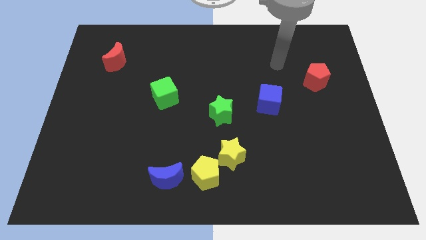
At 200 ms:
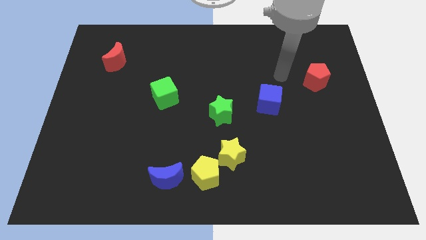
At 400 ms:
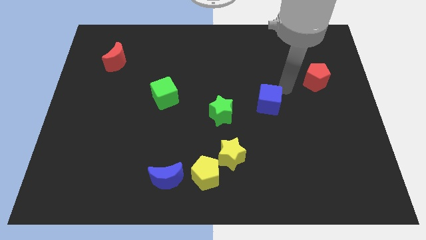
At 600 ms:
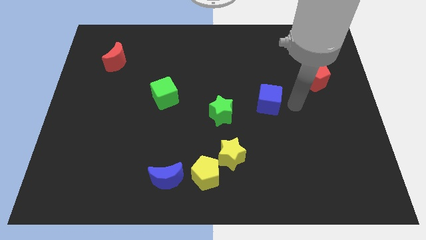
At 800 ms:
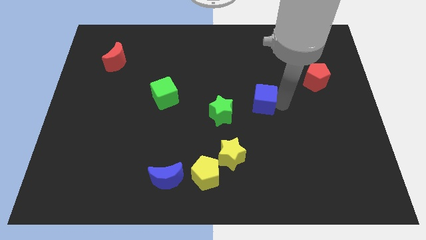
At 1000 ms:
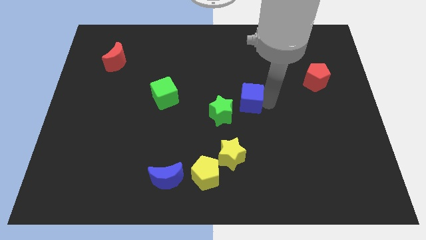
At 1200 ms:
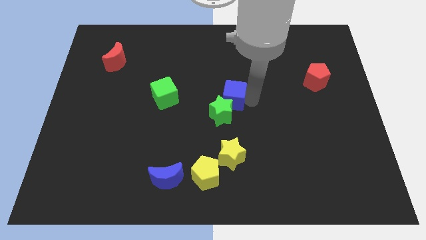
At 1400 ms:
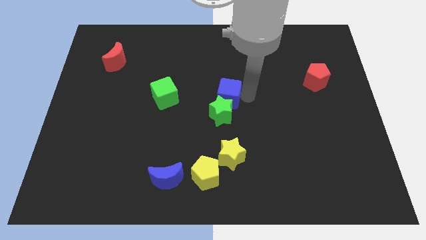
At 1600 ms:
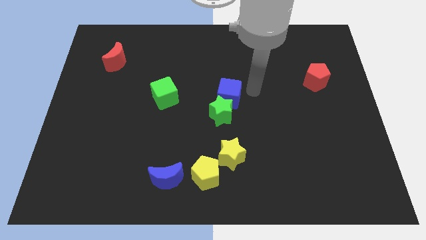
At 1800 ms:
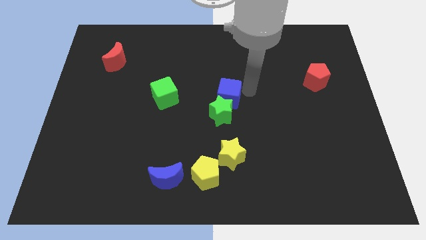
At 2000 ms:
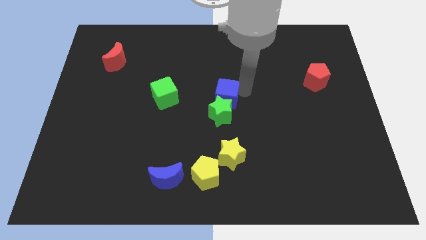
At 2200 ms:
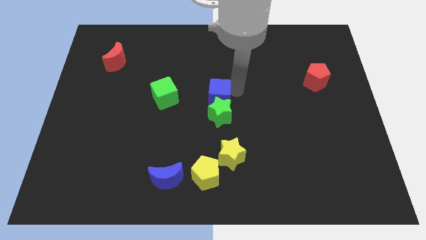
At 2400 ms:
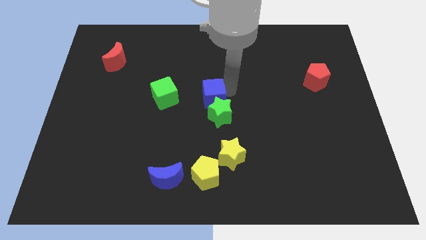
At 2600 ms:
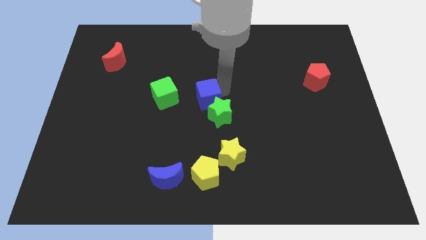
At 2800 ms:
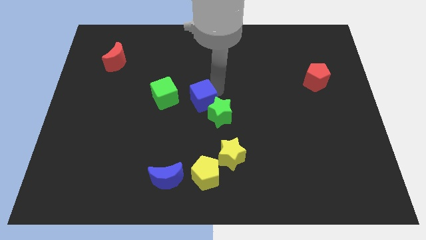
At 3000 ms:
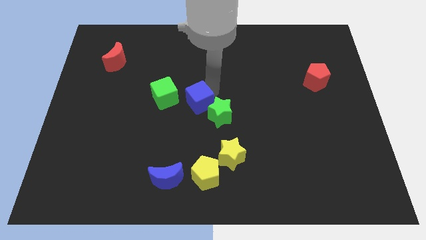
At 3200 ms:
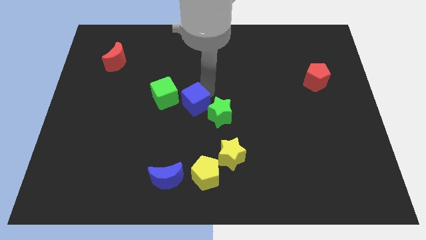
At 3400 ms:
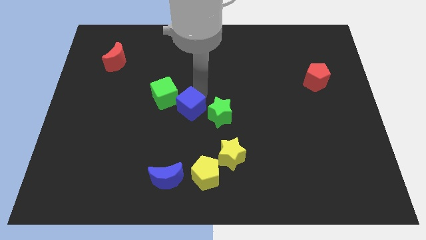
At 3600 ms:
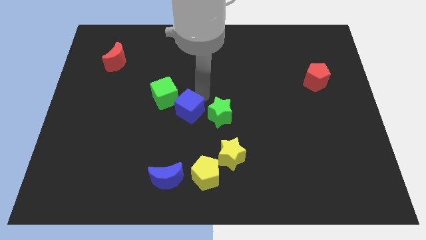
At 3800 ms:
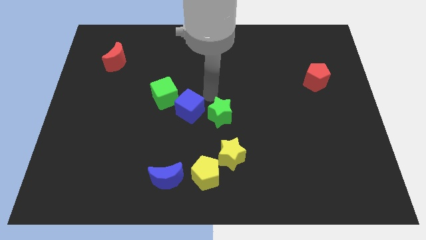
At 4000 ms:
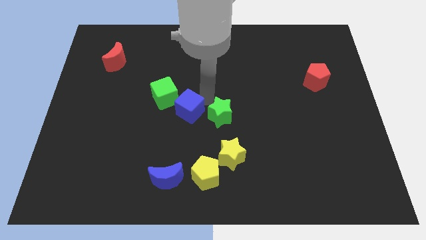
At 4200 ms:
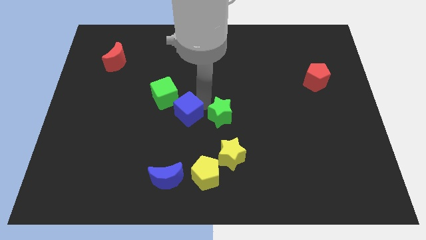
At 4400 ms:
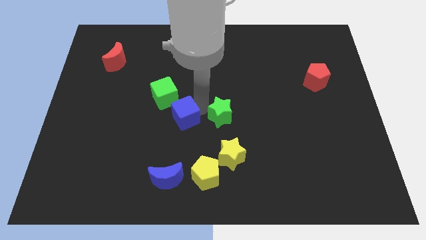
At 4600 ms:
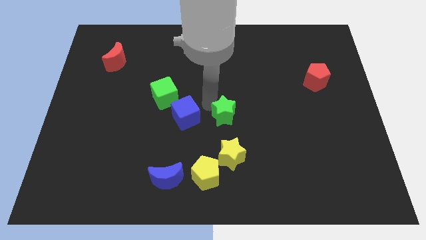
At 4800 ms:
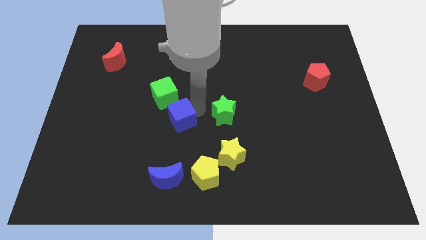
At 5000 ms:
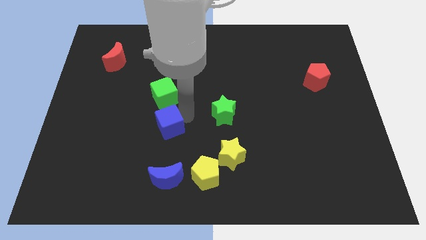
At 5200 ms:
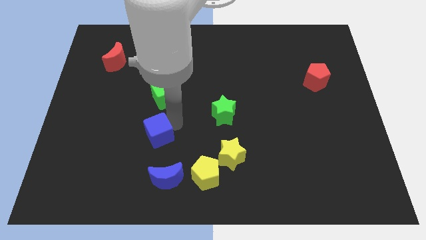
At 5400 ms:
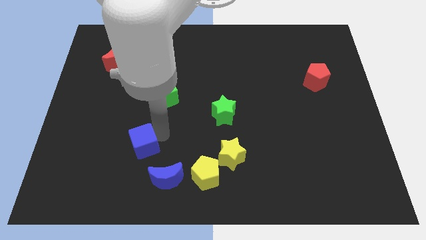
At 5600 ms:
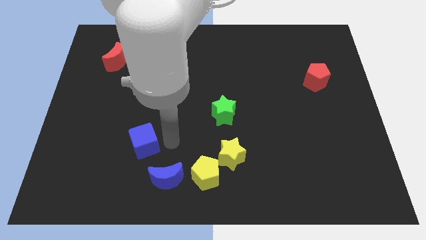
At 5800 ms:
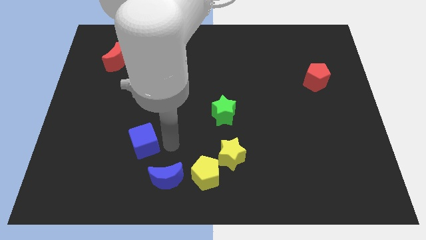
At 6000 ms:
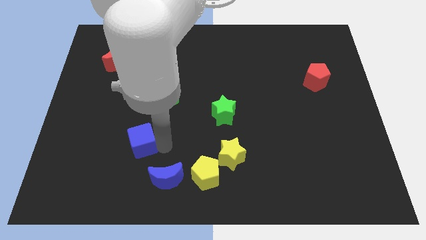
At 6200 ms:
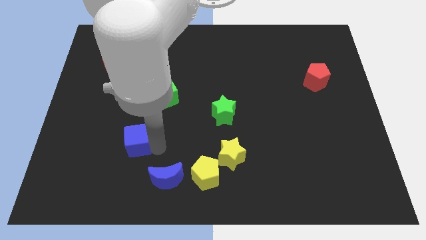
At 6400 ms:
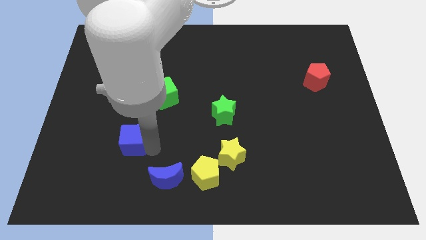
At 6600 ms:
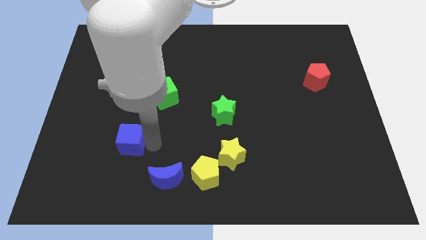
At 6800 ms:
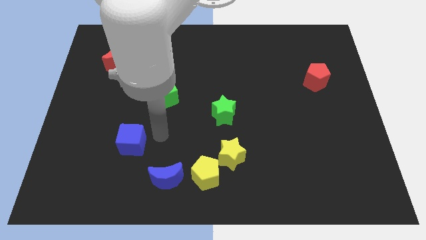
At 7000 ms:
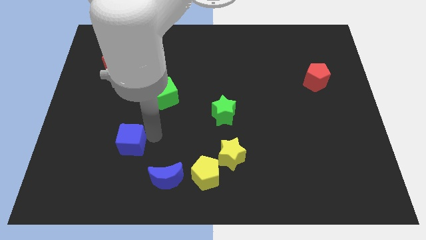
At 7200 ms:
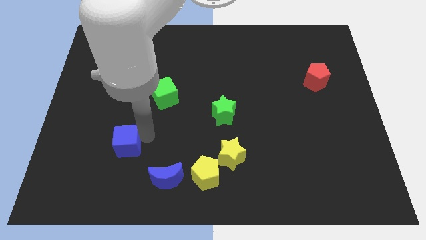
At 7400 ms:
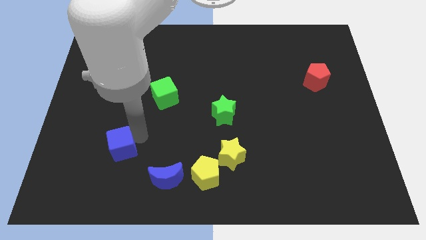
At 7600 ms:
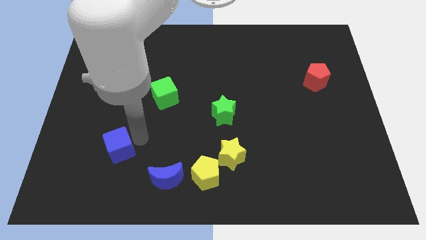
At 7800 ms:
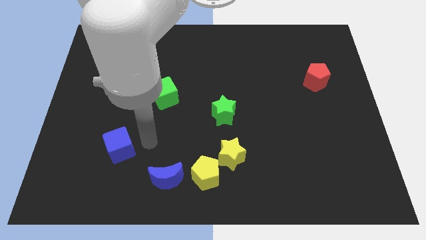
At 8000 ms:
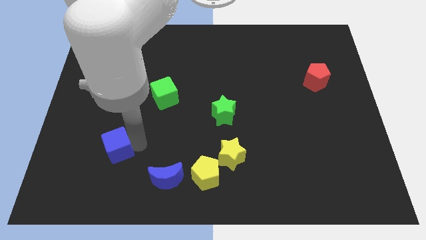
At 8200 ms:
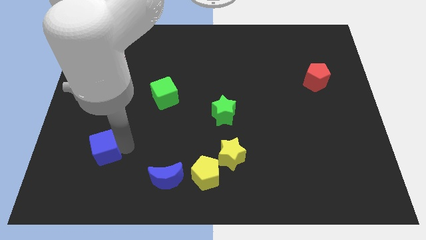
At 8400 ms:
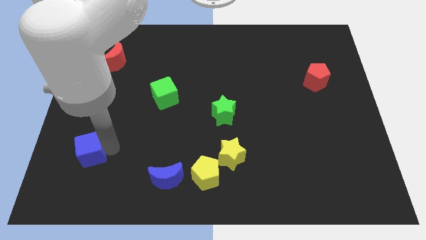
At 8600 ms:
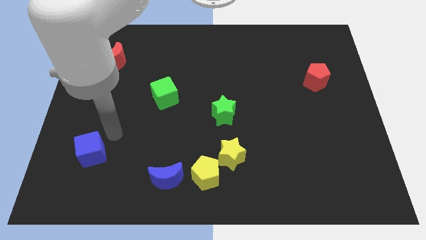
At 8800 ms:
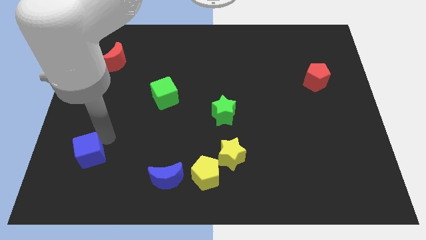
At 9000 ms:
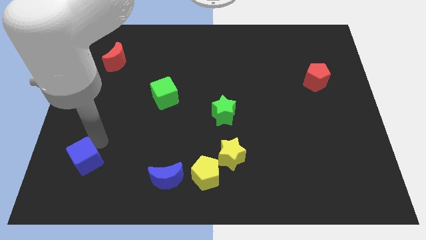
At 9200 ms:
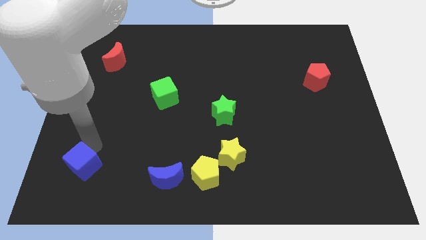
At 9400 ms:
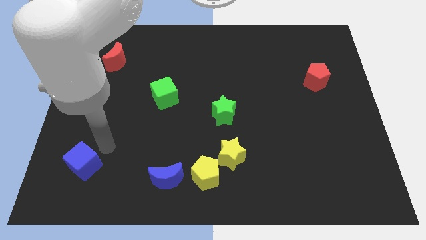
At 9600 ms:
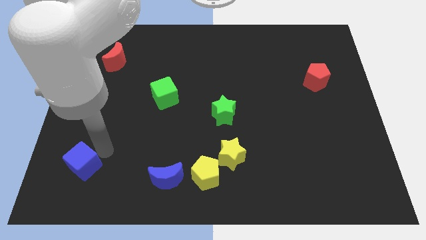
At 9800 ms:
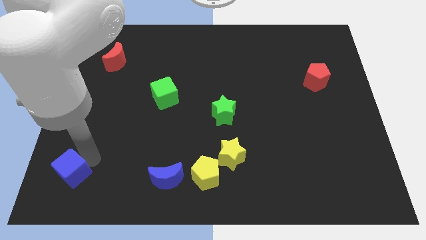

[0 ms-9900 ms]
move the blue cube to the bottom left corner

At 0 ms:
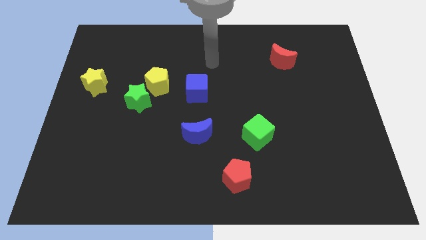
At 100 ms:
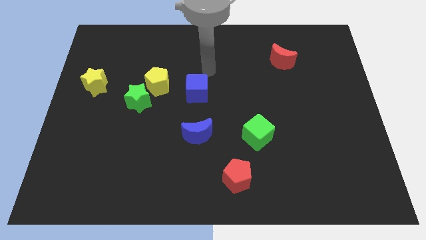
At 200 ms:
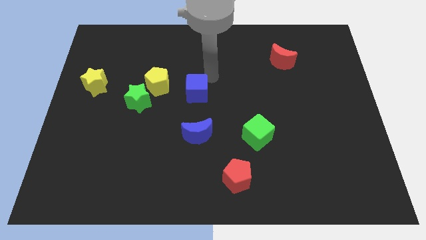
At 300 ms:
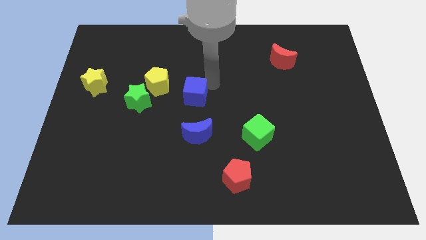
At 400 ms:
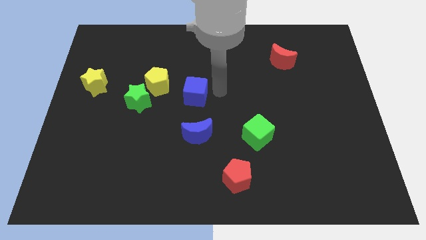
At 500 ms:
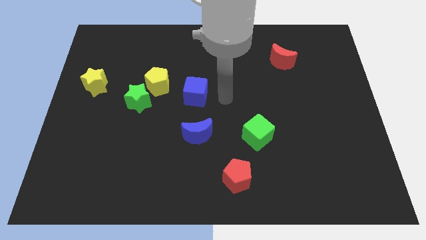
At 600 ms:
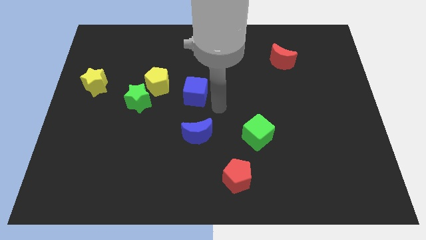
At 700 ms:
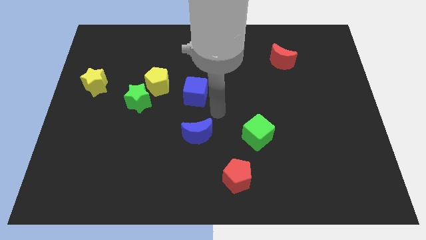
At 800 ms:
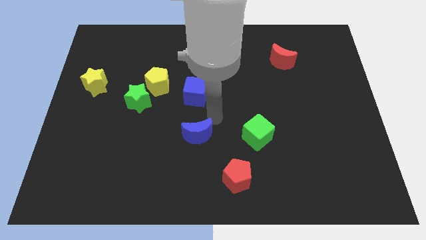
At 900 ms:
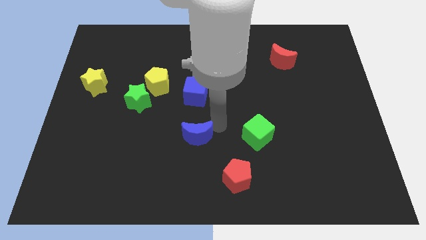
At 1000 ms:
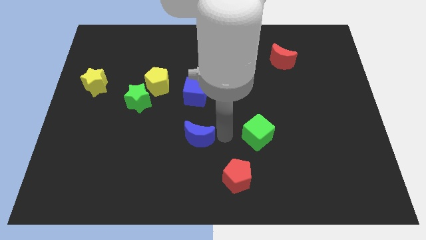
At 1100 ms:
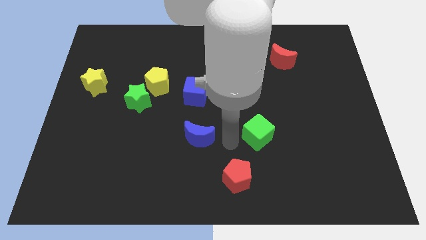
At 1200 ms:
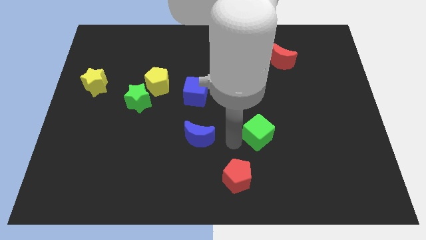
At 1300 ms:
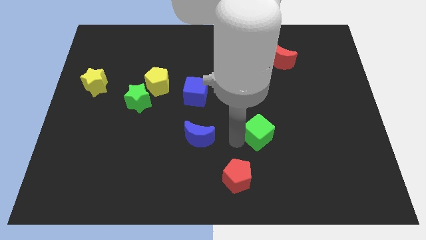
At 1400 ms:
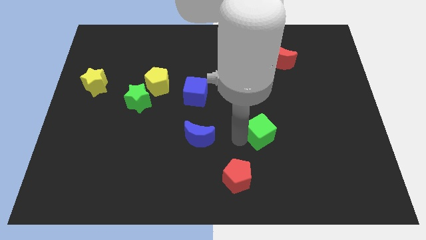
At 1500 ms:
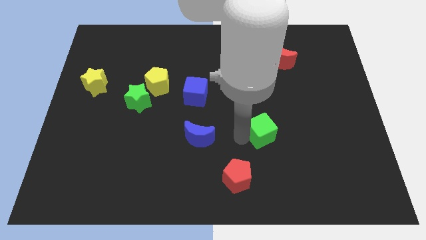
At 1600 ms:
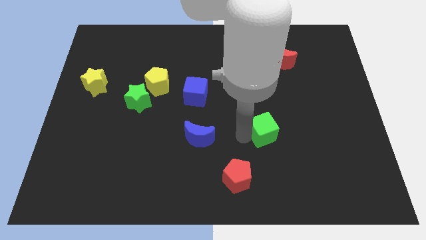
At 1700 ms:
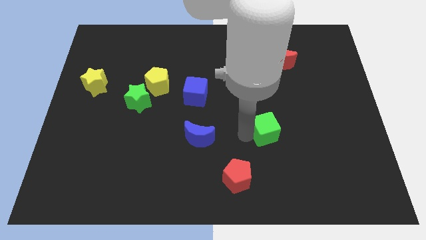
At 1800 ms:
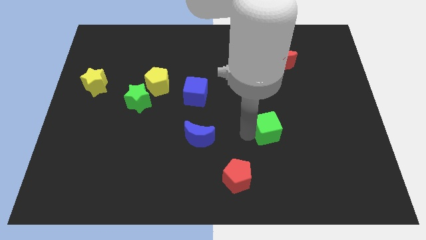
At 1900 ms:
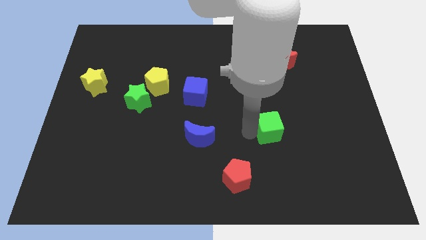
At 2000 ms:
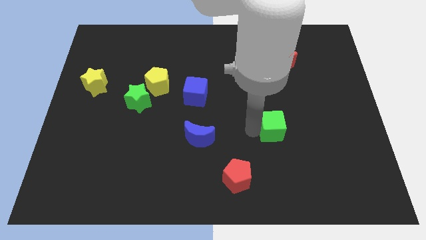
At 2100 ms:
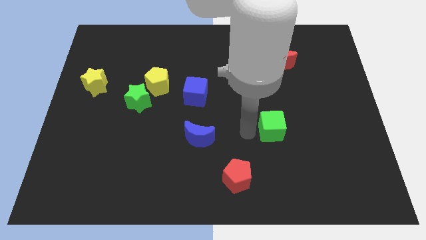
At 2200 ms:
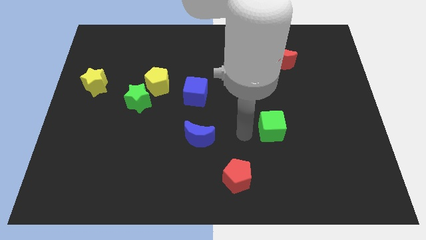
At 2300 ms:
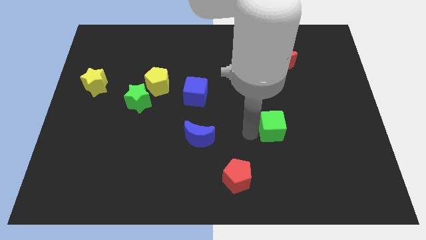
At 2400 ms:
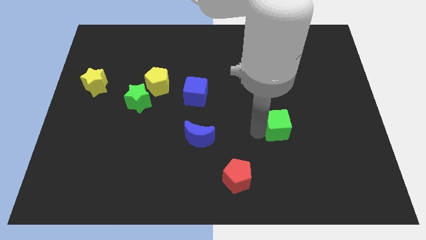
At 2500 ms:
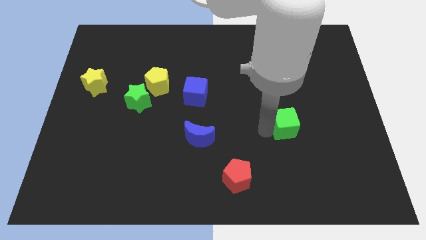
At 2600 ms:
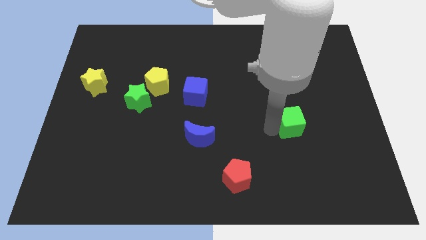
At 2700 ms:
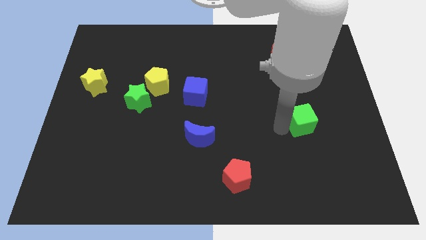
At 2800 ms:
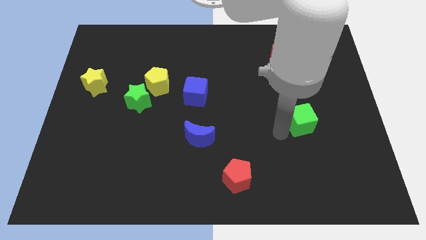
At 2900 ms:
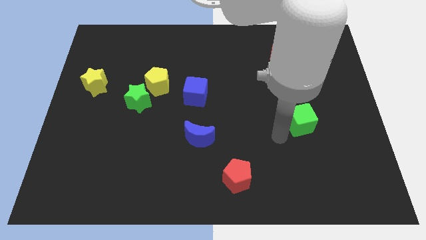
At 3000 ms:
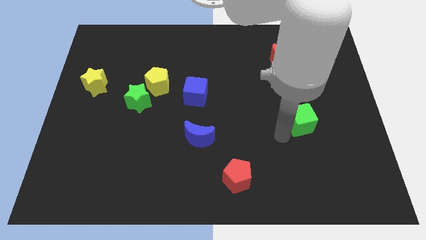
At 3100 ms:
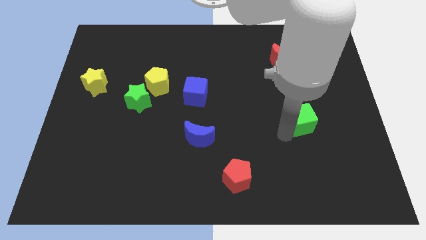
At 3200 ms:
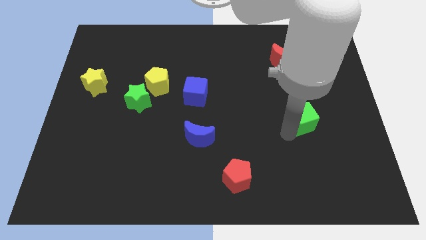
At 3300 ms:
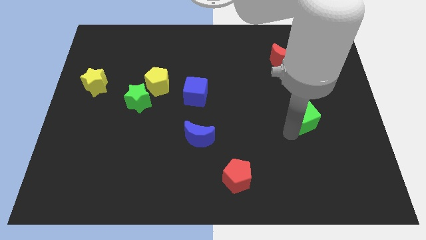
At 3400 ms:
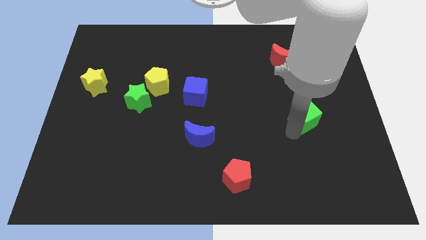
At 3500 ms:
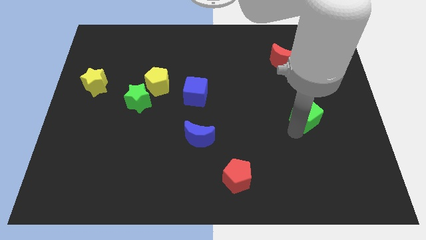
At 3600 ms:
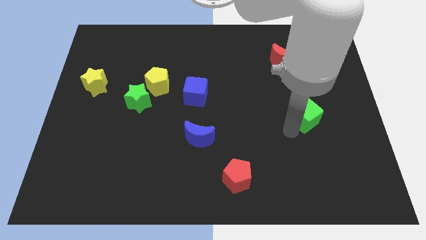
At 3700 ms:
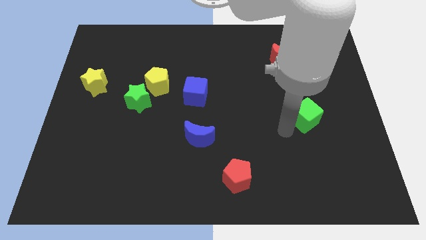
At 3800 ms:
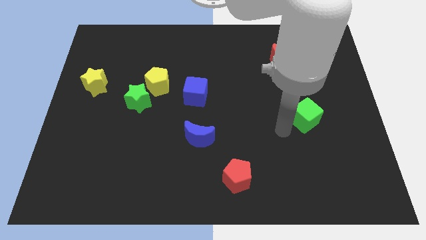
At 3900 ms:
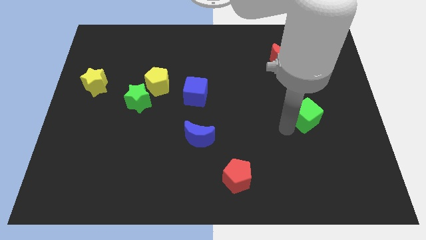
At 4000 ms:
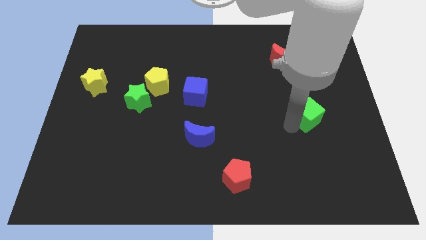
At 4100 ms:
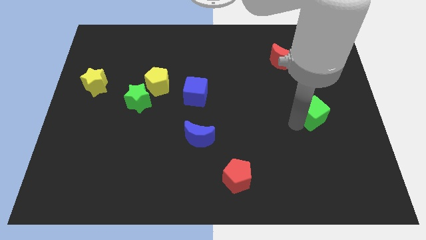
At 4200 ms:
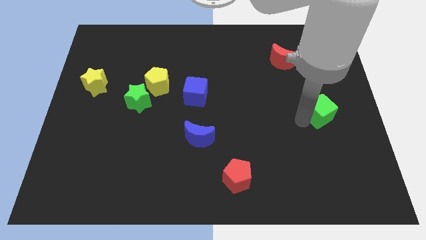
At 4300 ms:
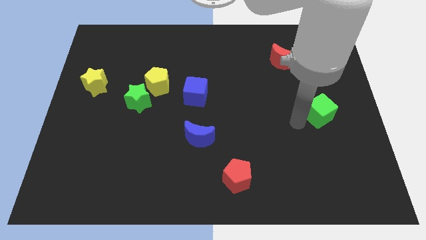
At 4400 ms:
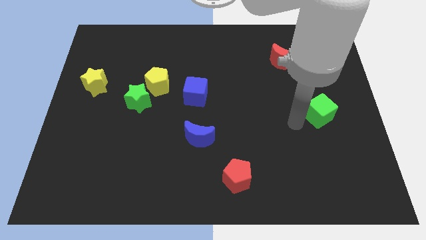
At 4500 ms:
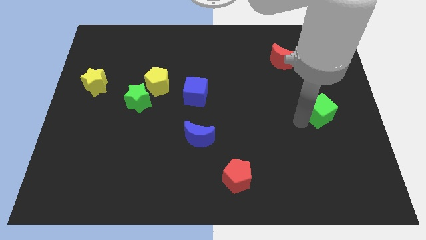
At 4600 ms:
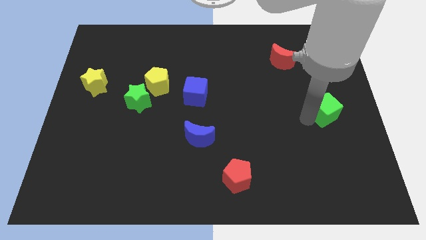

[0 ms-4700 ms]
put the green cube to the right side of the board
